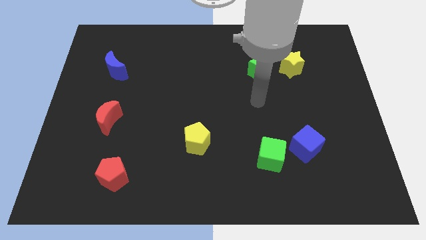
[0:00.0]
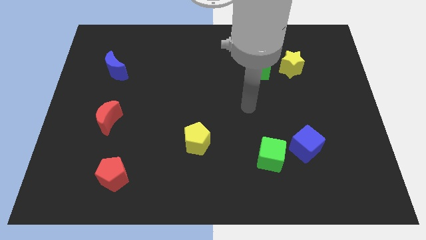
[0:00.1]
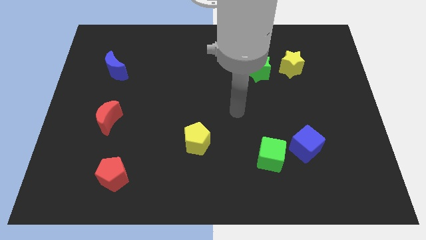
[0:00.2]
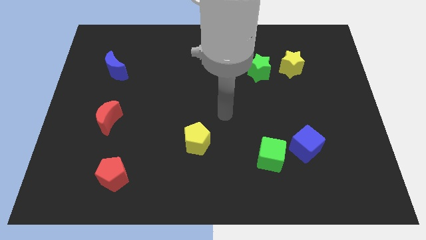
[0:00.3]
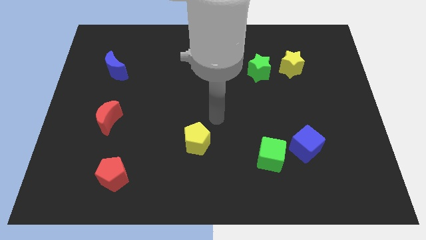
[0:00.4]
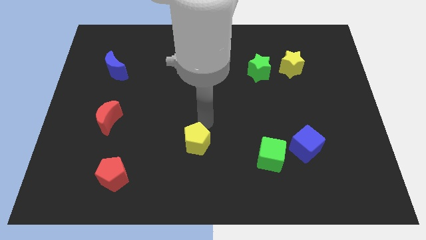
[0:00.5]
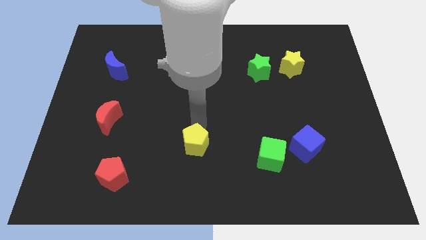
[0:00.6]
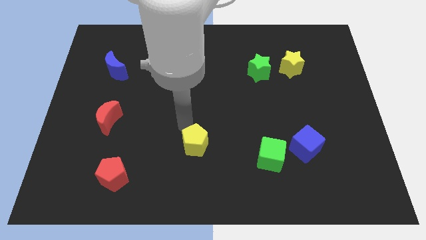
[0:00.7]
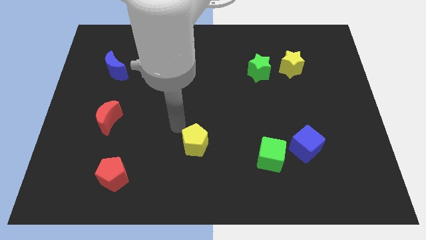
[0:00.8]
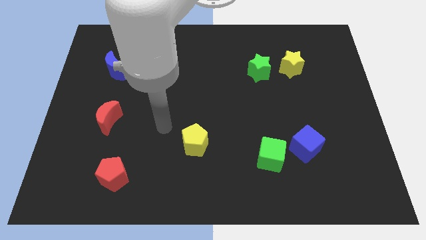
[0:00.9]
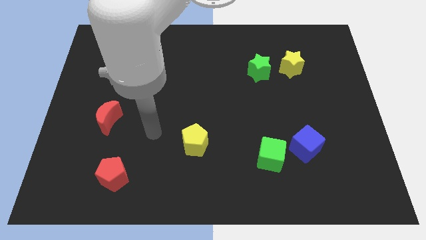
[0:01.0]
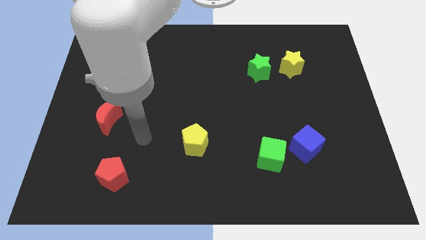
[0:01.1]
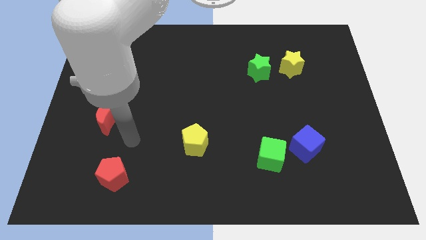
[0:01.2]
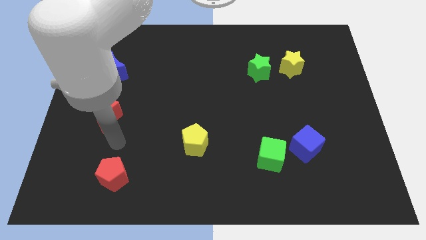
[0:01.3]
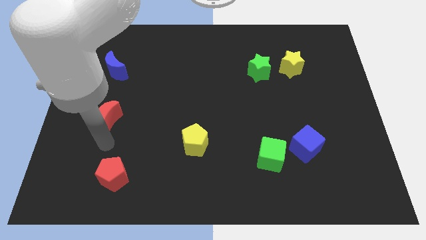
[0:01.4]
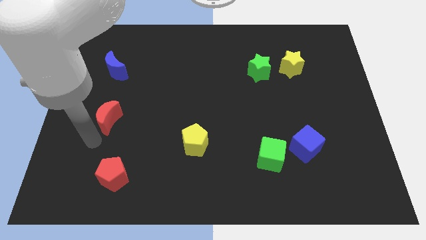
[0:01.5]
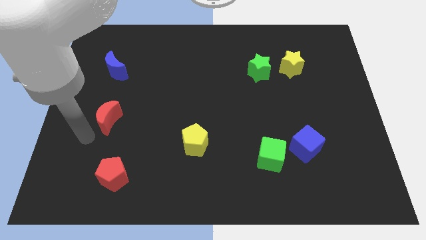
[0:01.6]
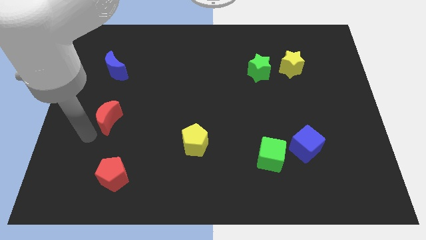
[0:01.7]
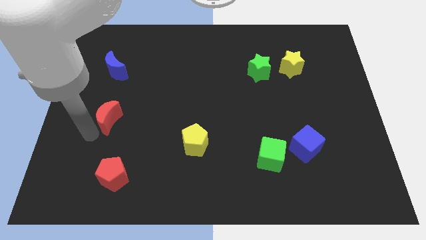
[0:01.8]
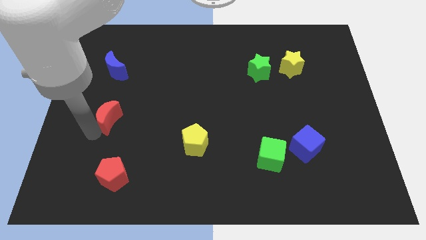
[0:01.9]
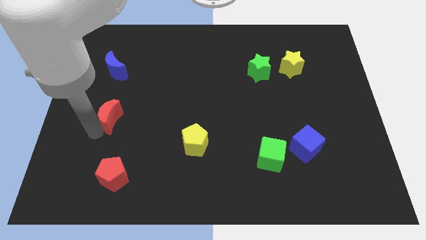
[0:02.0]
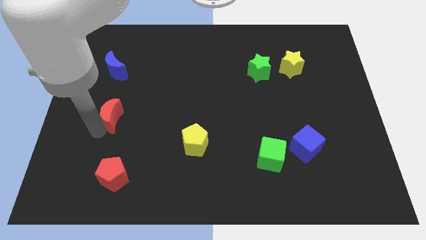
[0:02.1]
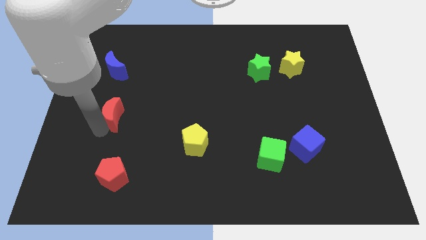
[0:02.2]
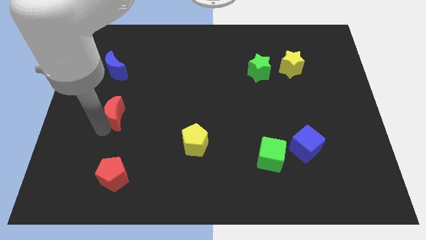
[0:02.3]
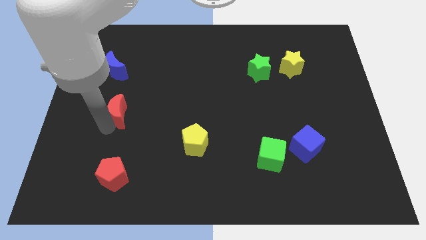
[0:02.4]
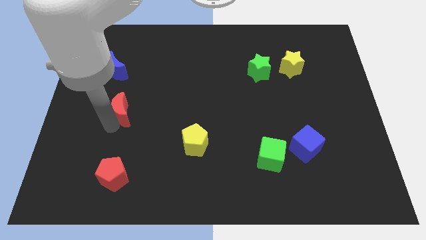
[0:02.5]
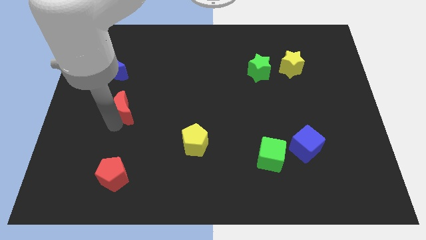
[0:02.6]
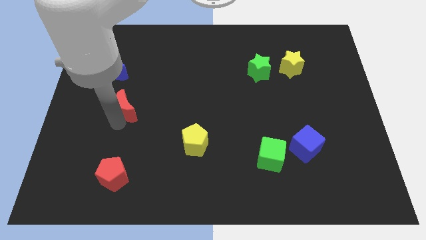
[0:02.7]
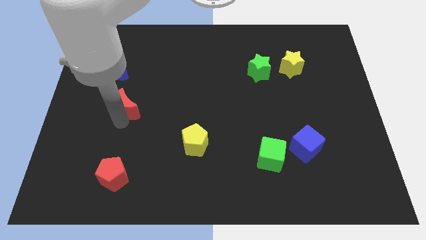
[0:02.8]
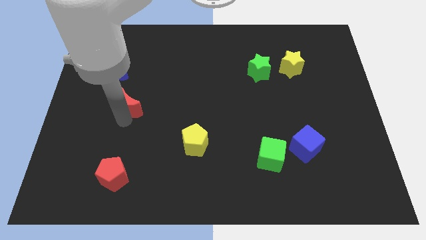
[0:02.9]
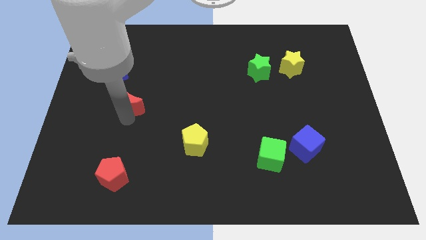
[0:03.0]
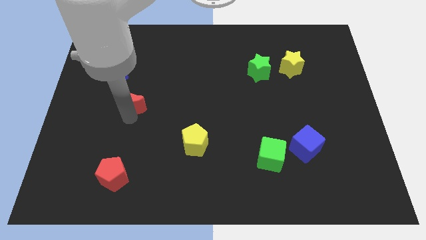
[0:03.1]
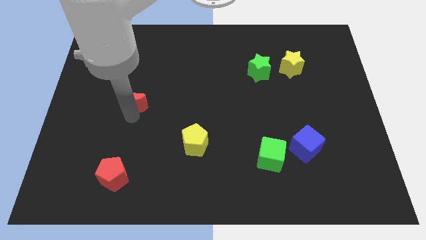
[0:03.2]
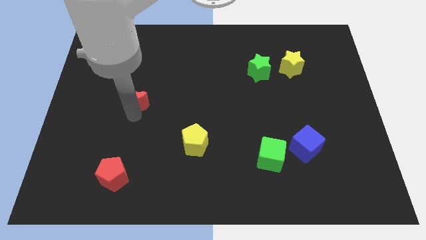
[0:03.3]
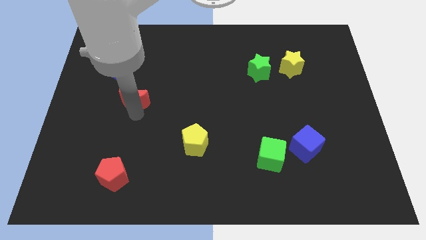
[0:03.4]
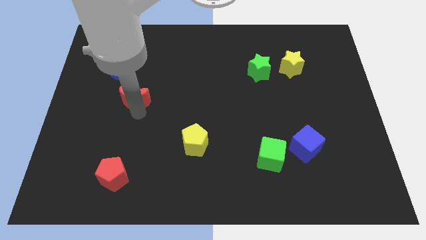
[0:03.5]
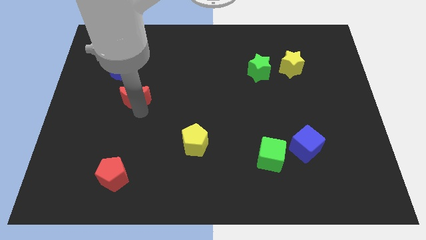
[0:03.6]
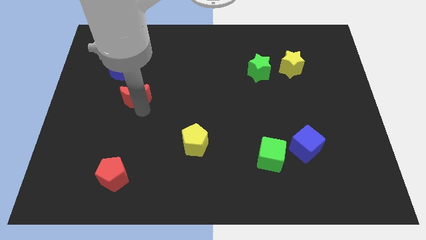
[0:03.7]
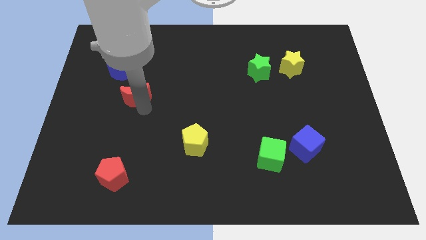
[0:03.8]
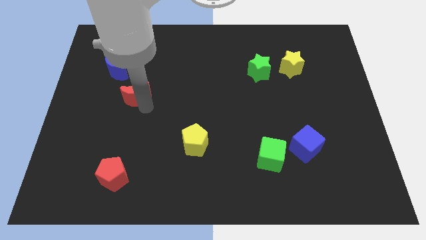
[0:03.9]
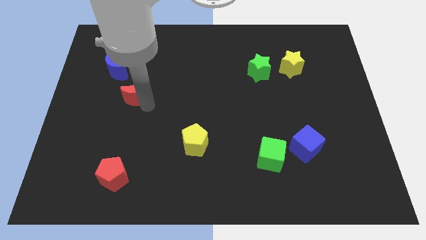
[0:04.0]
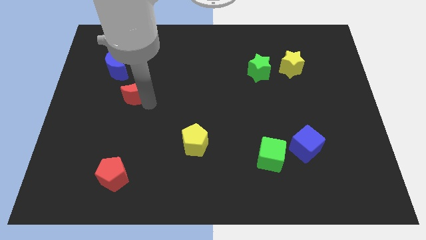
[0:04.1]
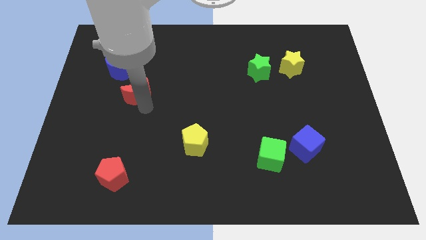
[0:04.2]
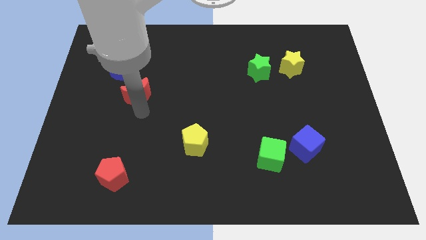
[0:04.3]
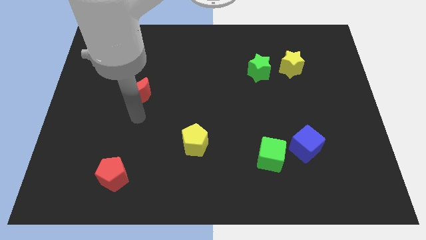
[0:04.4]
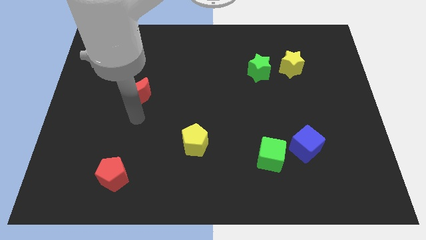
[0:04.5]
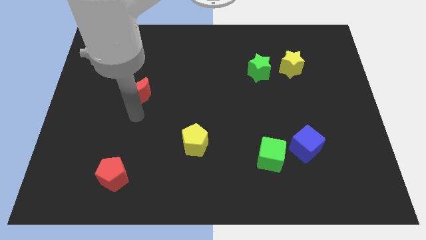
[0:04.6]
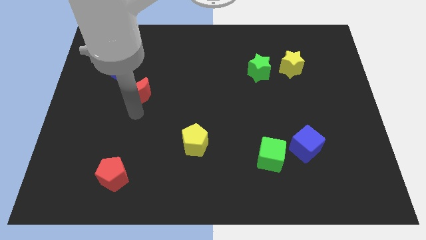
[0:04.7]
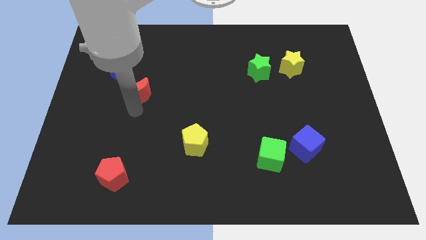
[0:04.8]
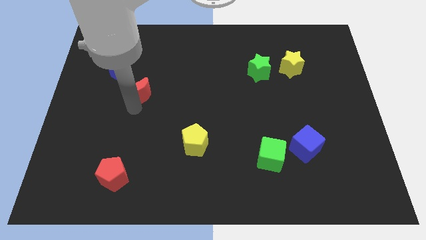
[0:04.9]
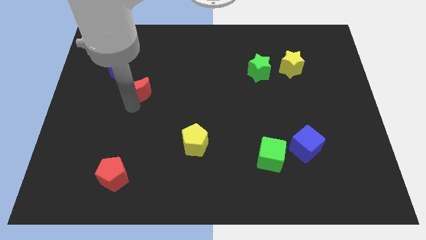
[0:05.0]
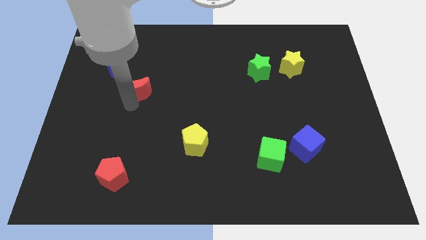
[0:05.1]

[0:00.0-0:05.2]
move the red moon a little bit up

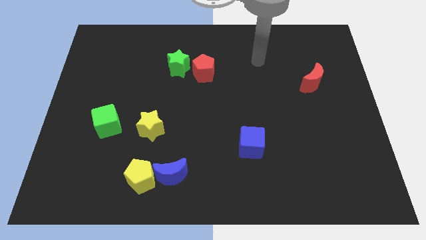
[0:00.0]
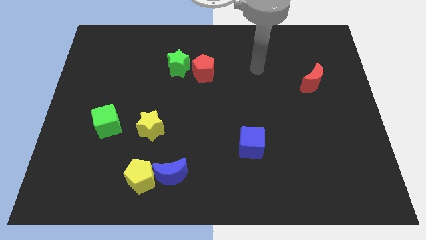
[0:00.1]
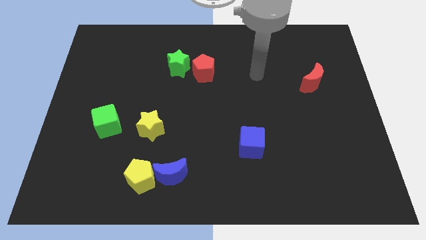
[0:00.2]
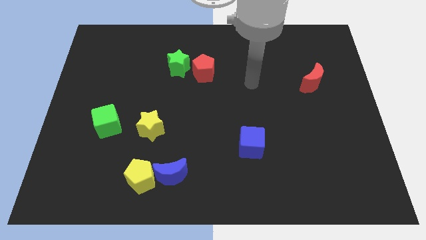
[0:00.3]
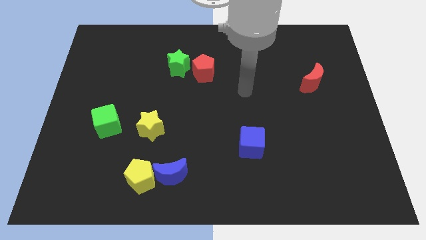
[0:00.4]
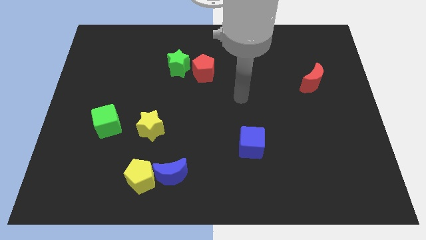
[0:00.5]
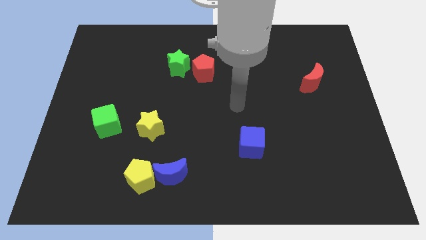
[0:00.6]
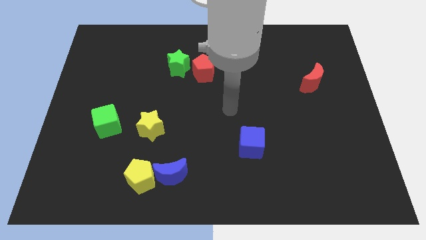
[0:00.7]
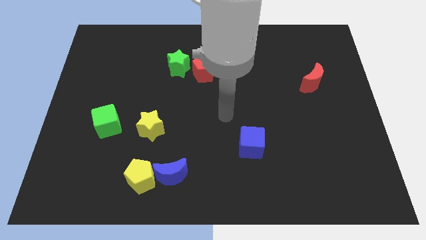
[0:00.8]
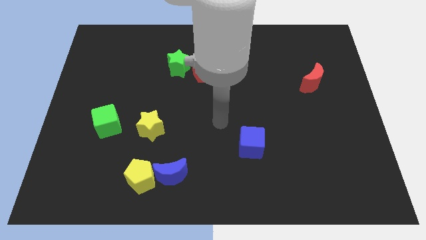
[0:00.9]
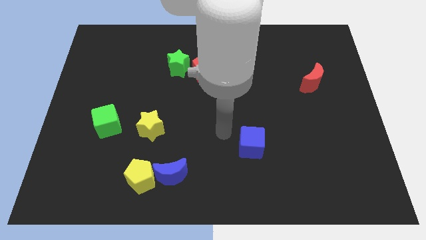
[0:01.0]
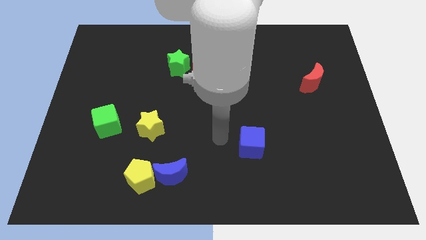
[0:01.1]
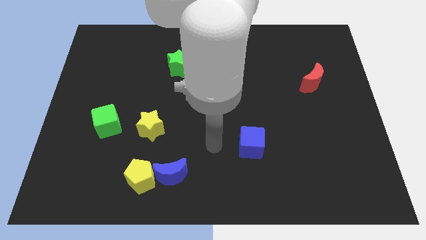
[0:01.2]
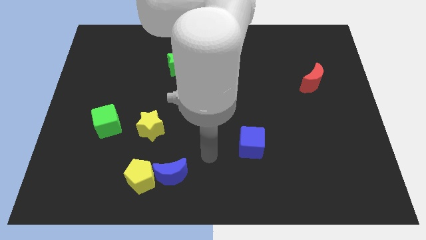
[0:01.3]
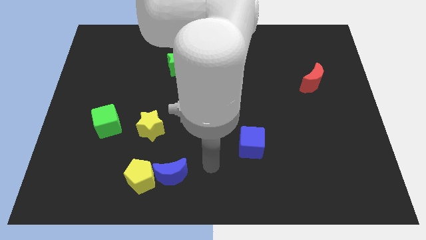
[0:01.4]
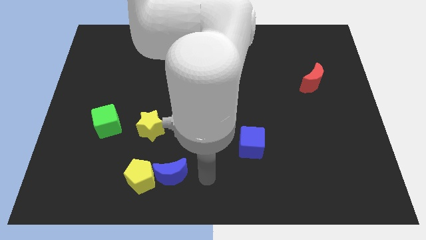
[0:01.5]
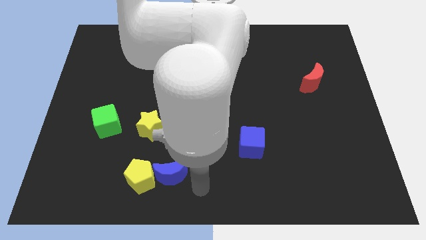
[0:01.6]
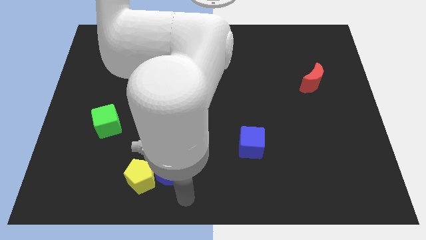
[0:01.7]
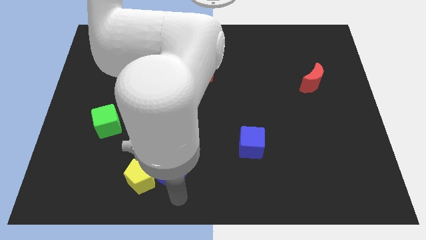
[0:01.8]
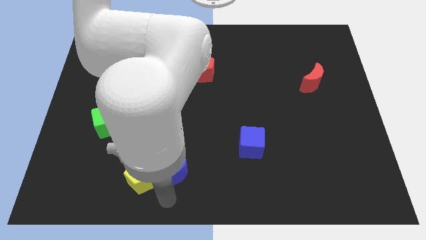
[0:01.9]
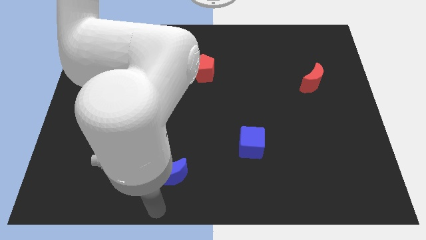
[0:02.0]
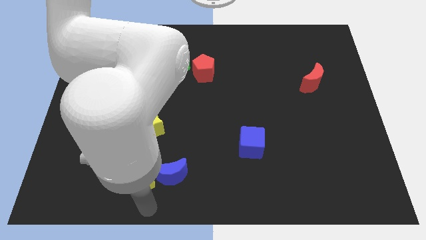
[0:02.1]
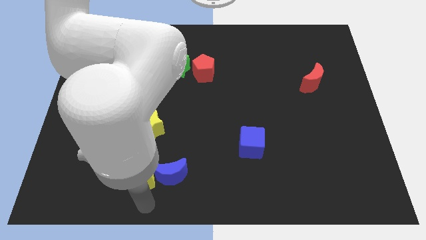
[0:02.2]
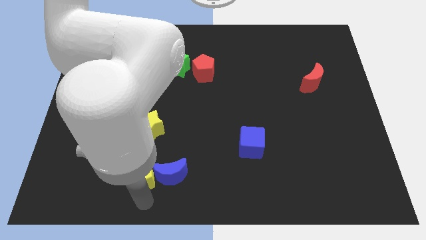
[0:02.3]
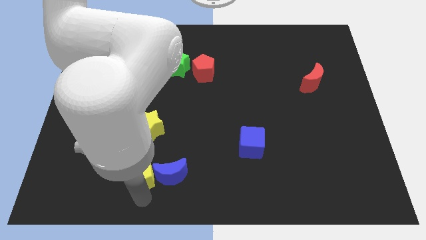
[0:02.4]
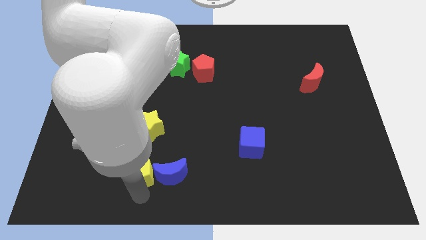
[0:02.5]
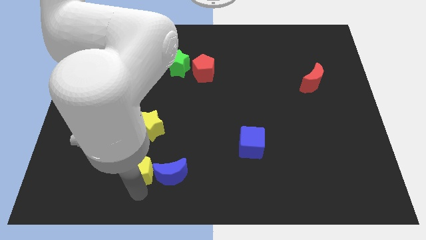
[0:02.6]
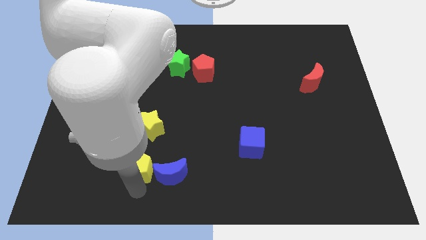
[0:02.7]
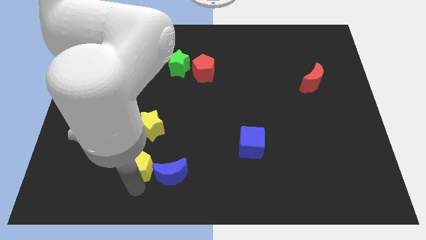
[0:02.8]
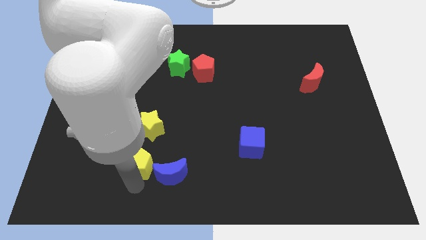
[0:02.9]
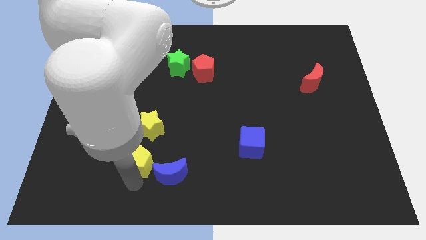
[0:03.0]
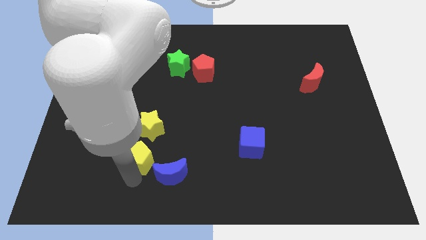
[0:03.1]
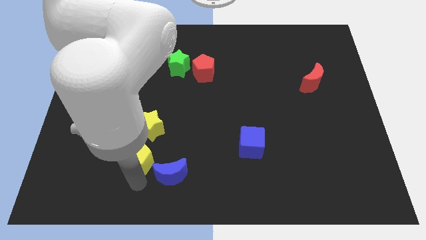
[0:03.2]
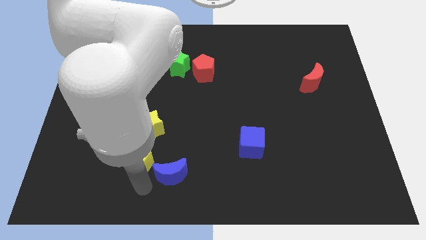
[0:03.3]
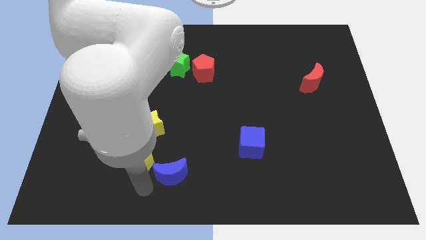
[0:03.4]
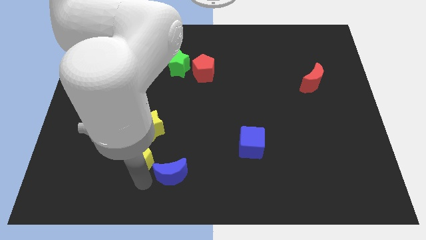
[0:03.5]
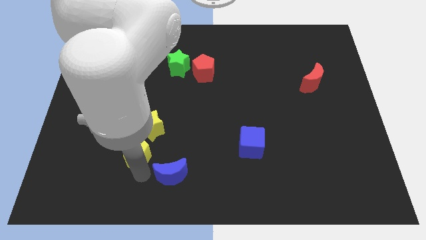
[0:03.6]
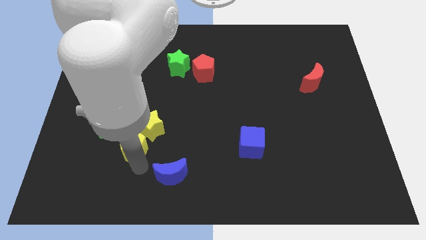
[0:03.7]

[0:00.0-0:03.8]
slightly slide the yellow pentagon up
